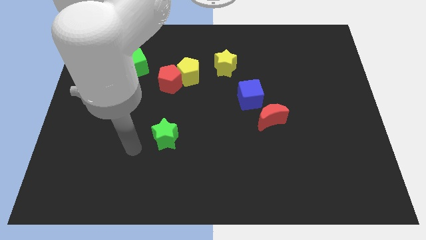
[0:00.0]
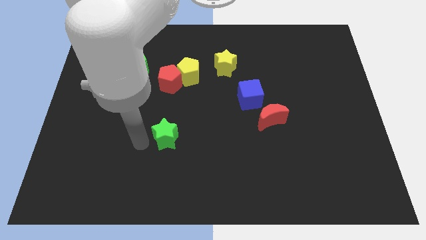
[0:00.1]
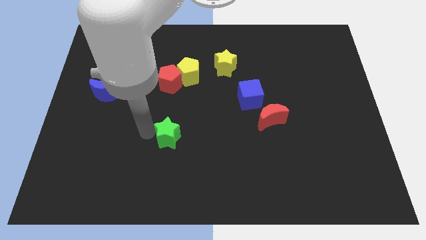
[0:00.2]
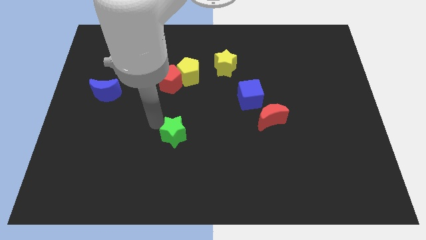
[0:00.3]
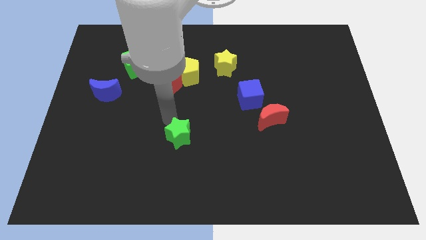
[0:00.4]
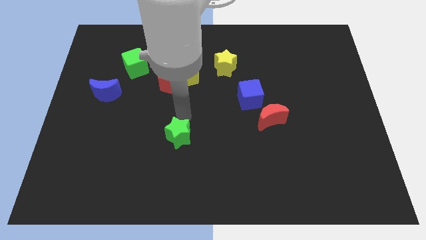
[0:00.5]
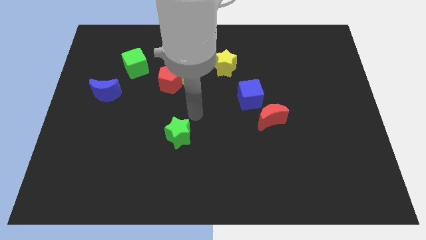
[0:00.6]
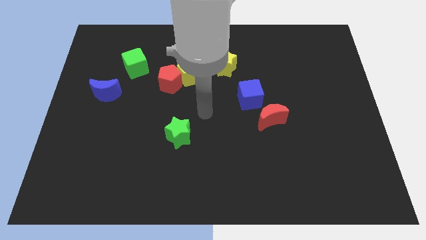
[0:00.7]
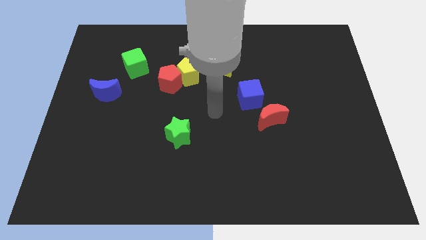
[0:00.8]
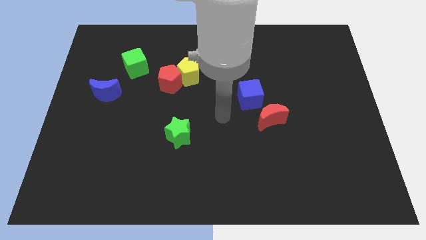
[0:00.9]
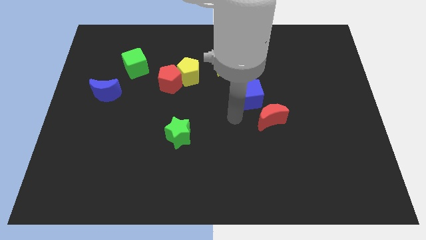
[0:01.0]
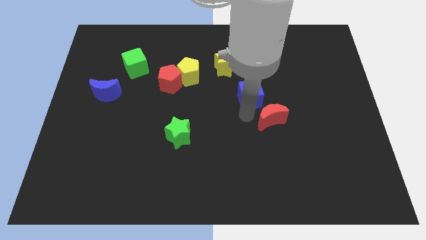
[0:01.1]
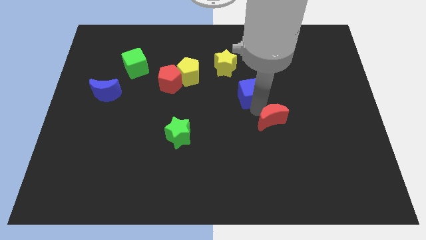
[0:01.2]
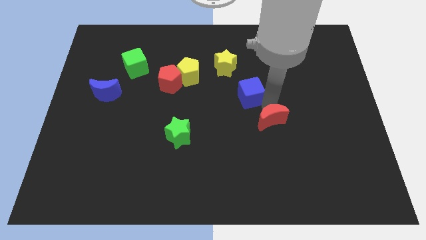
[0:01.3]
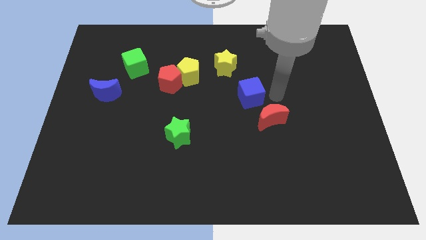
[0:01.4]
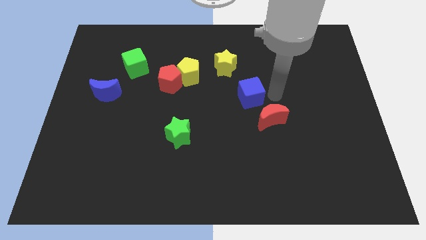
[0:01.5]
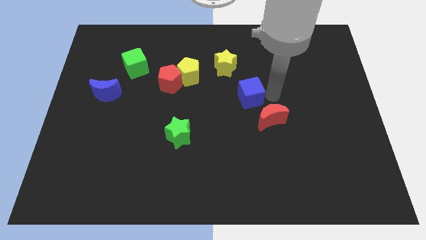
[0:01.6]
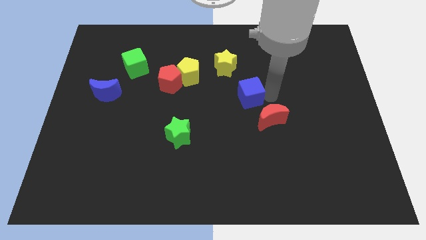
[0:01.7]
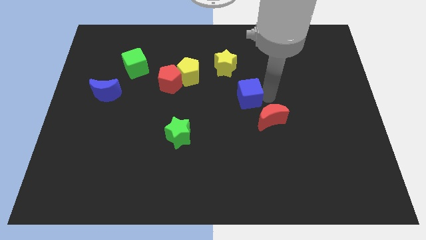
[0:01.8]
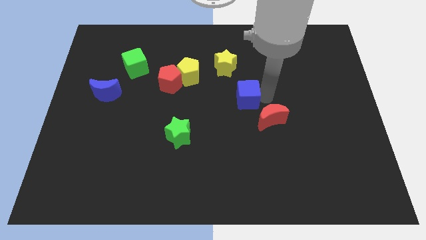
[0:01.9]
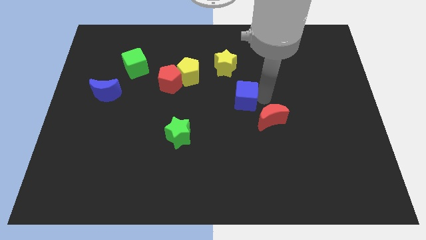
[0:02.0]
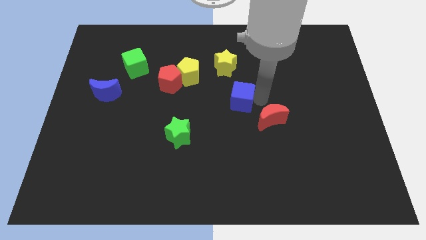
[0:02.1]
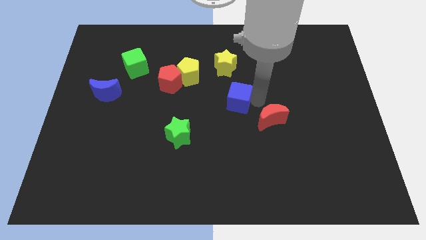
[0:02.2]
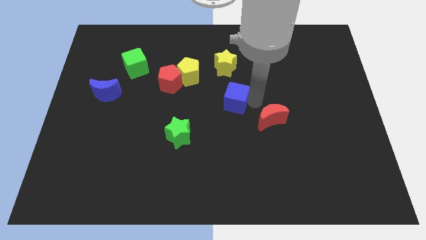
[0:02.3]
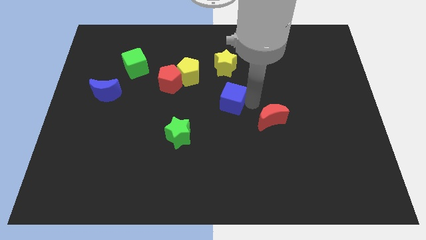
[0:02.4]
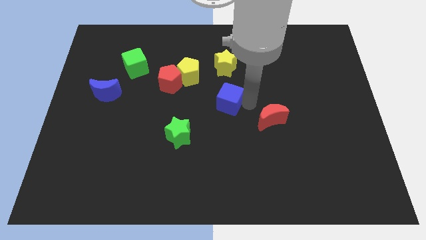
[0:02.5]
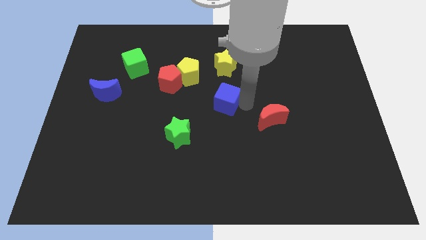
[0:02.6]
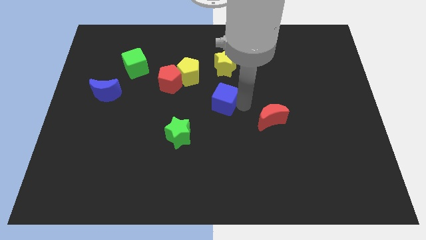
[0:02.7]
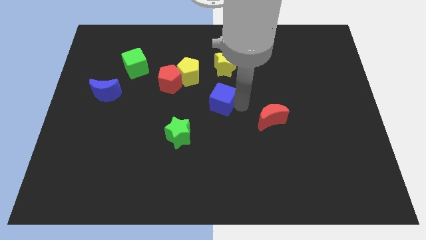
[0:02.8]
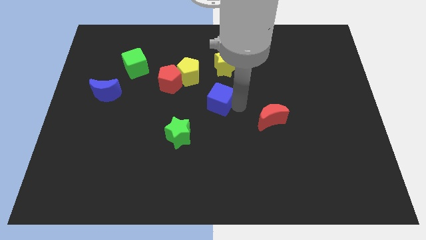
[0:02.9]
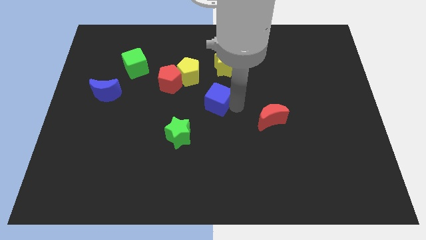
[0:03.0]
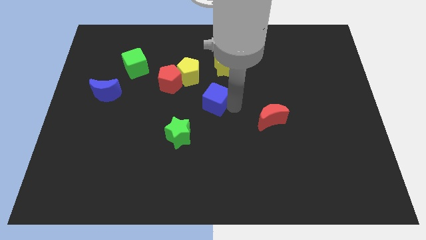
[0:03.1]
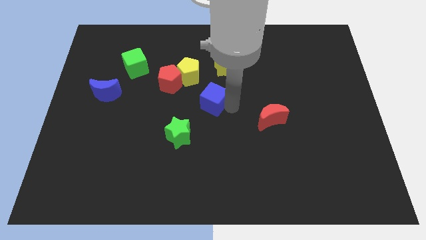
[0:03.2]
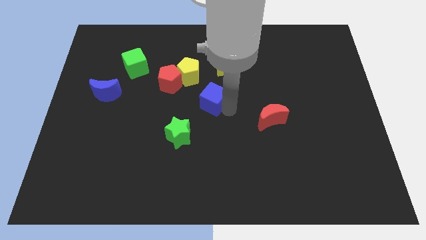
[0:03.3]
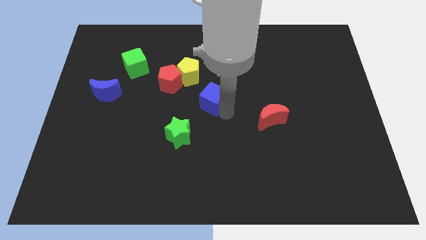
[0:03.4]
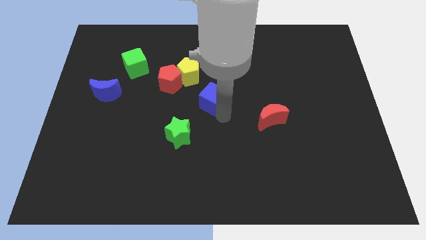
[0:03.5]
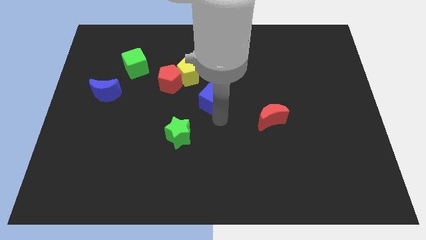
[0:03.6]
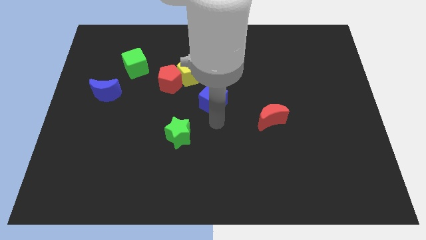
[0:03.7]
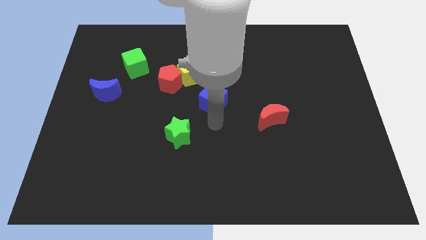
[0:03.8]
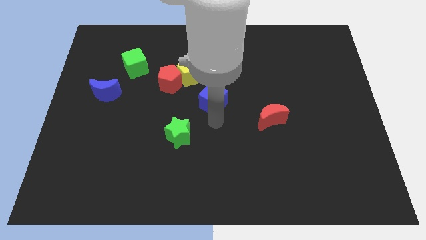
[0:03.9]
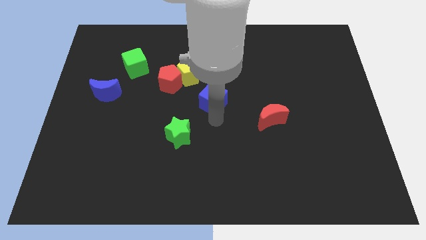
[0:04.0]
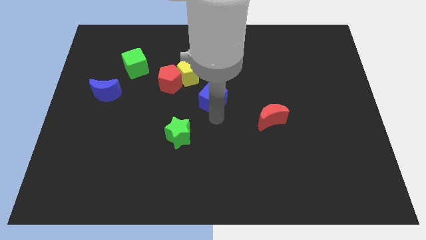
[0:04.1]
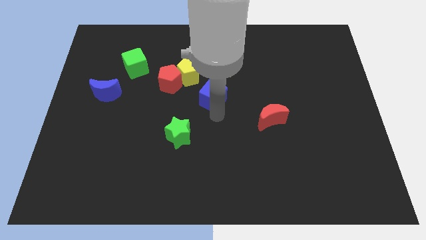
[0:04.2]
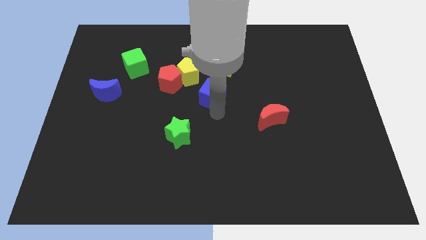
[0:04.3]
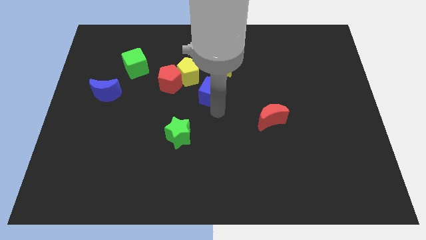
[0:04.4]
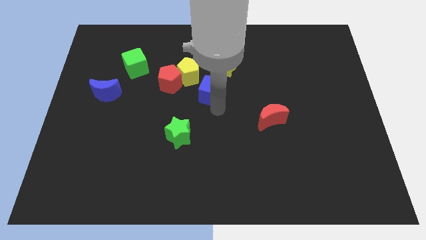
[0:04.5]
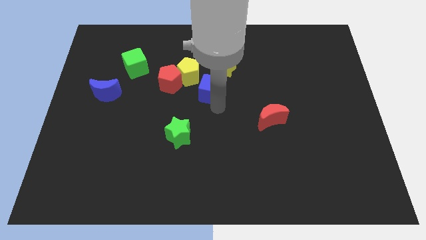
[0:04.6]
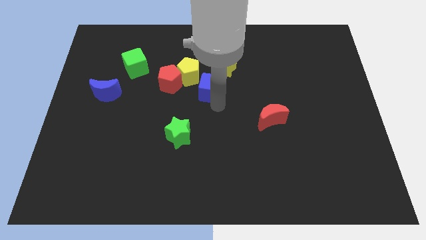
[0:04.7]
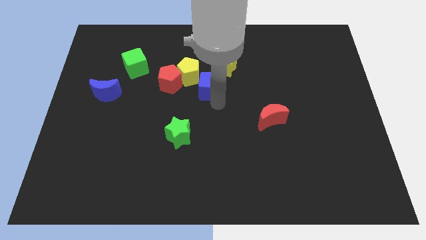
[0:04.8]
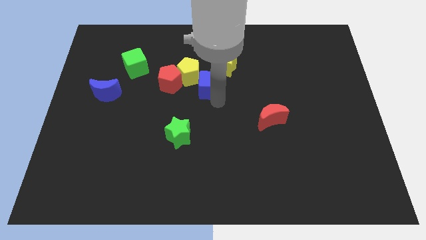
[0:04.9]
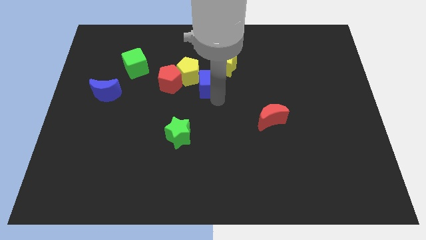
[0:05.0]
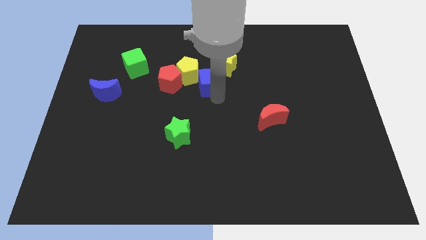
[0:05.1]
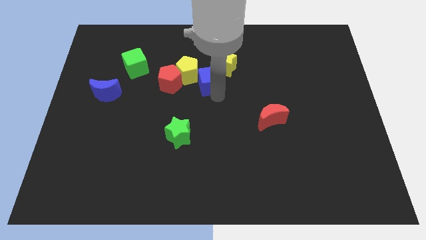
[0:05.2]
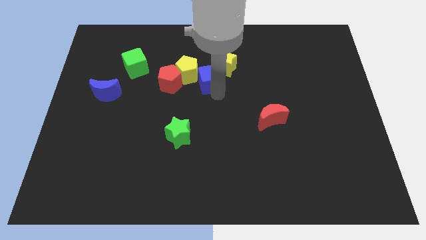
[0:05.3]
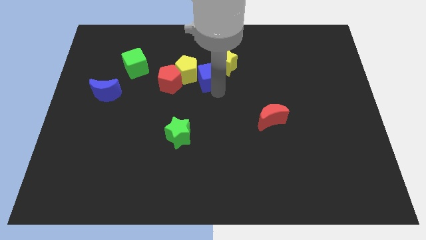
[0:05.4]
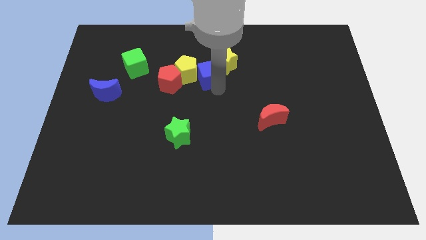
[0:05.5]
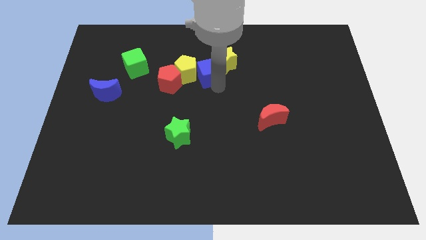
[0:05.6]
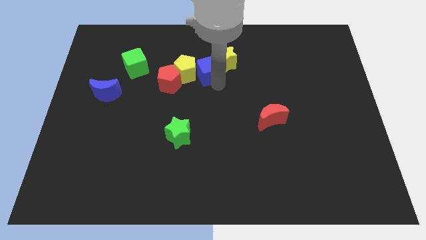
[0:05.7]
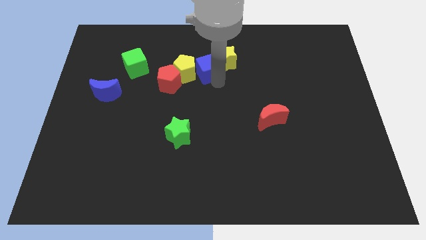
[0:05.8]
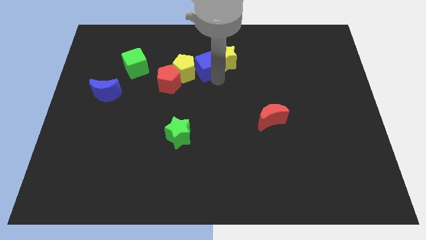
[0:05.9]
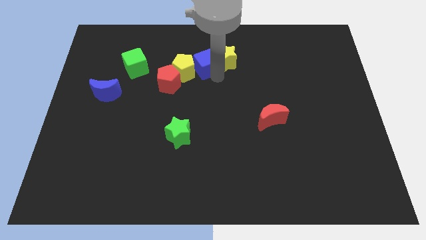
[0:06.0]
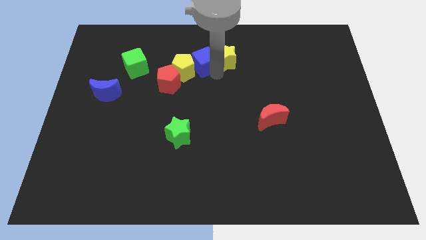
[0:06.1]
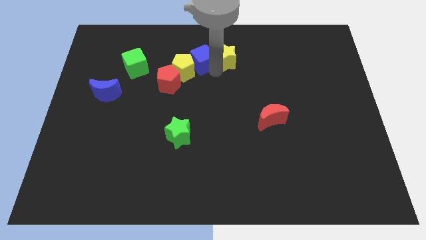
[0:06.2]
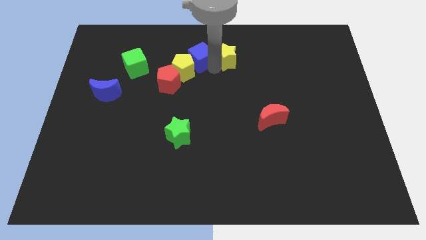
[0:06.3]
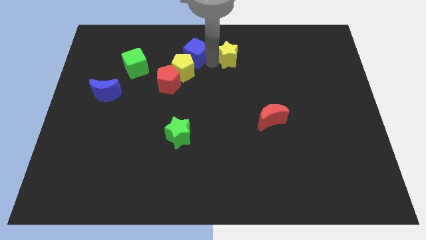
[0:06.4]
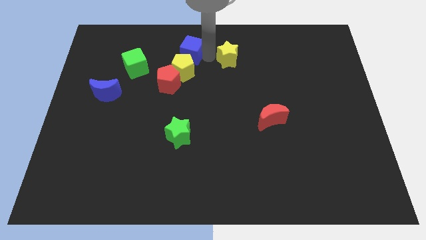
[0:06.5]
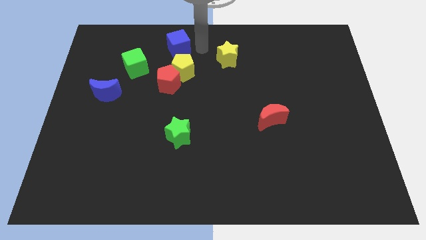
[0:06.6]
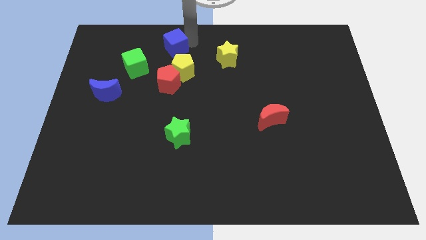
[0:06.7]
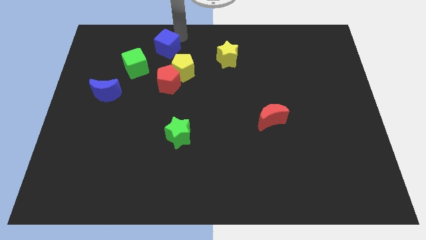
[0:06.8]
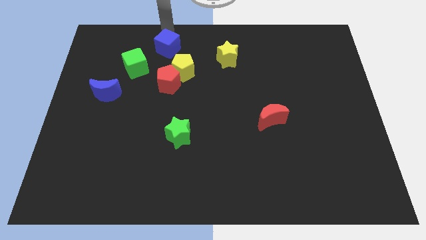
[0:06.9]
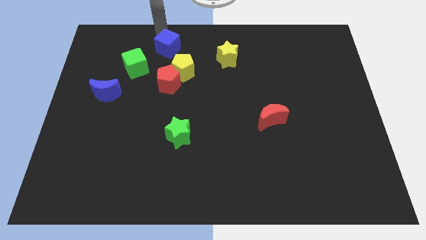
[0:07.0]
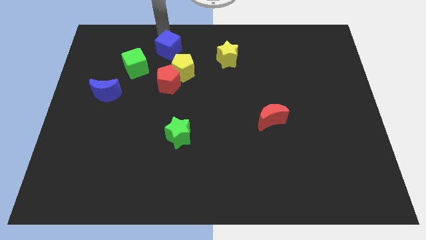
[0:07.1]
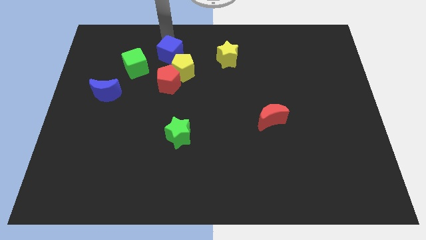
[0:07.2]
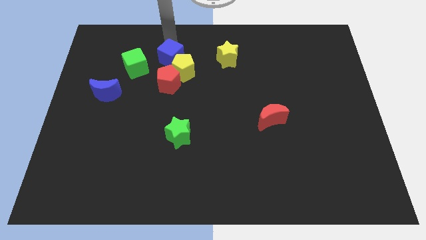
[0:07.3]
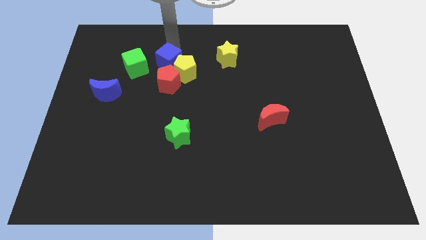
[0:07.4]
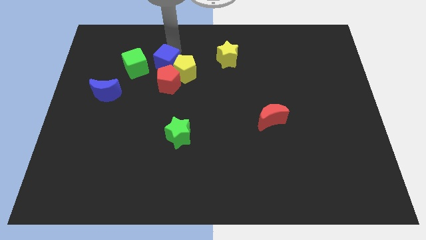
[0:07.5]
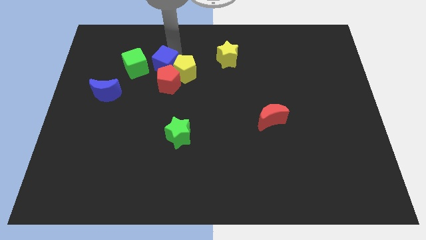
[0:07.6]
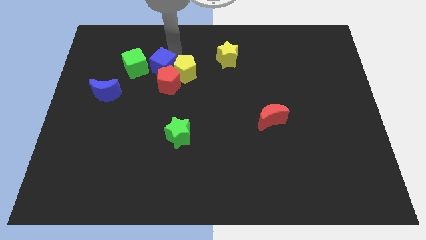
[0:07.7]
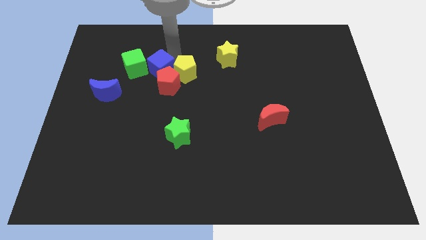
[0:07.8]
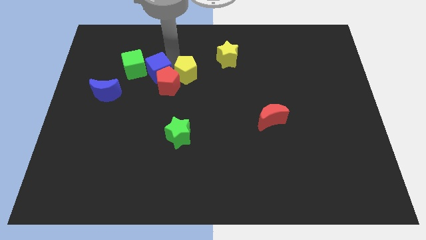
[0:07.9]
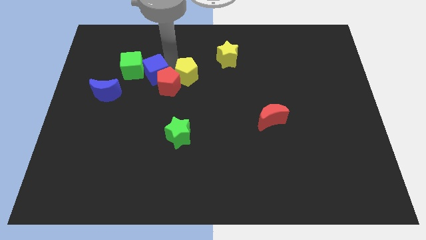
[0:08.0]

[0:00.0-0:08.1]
push the blue cube close to the green cube
